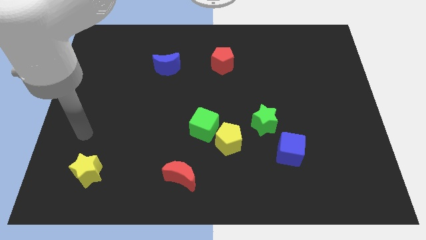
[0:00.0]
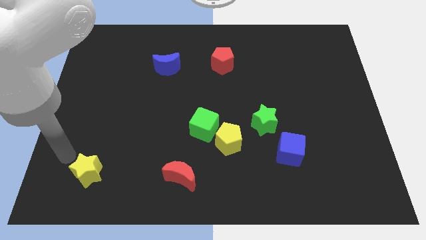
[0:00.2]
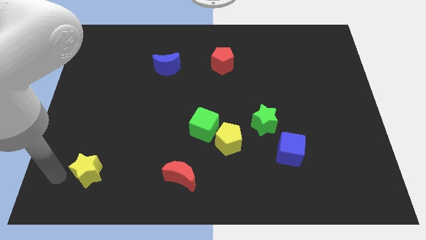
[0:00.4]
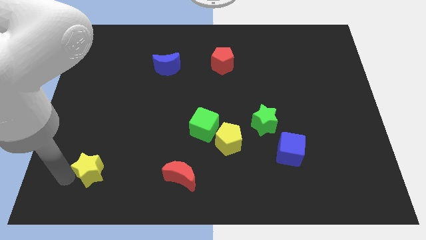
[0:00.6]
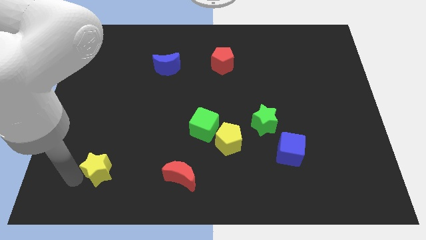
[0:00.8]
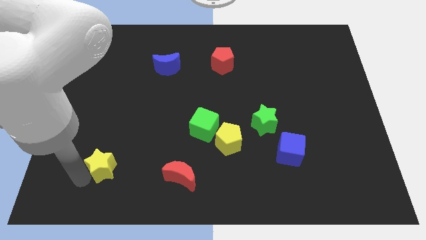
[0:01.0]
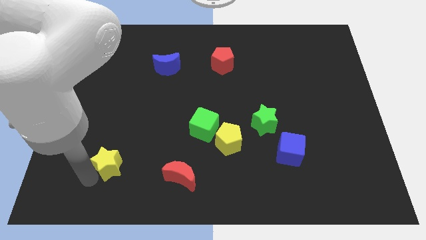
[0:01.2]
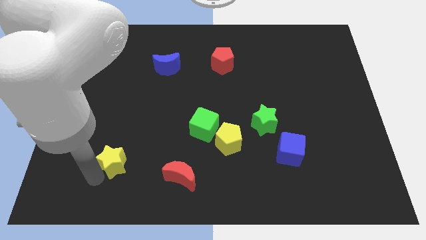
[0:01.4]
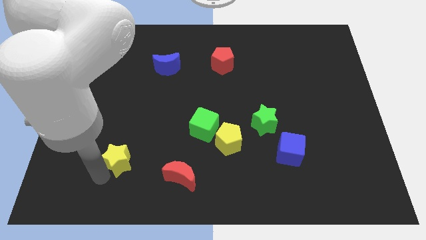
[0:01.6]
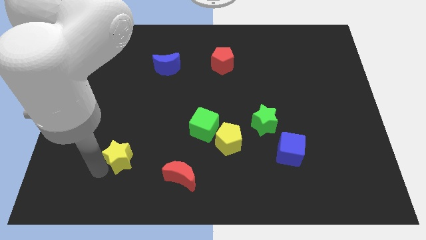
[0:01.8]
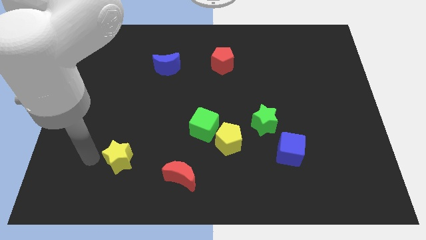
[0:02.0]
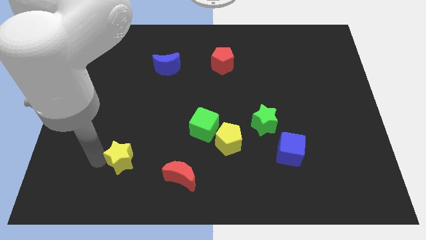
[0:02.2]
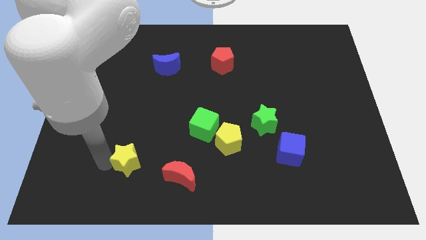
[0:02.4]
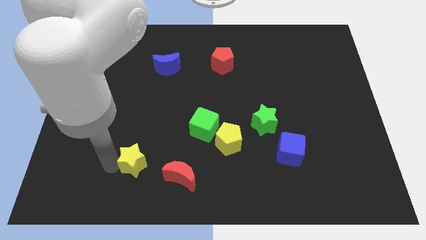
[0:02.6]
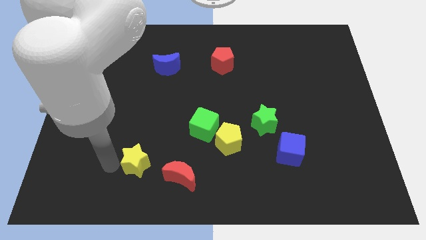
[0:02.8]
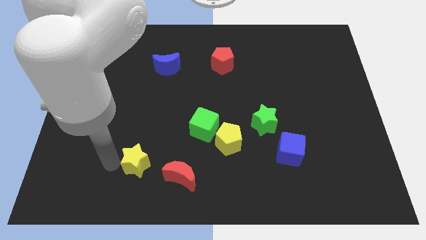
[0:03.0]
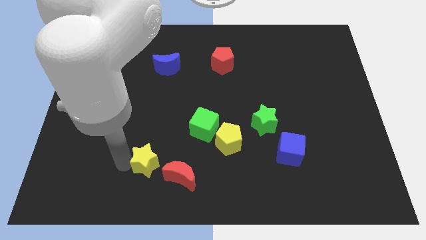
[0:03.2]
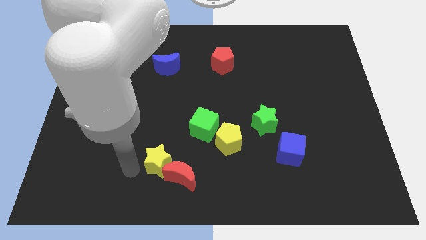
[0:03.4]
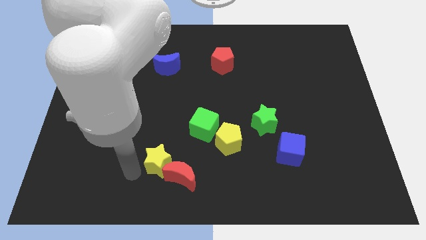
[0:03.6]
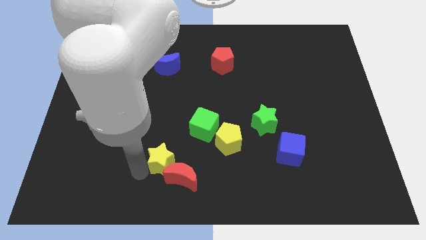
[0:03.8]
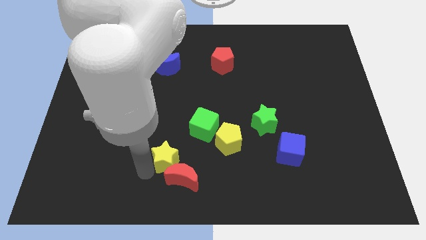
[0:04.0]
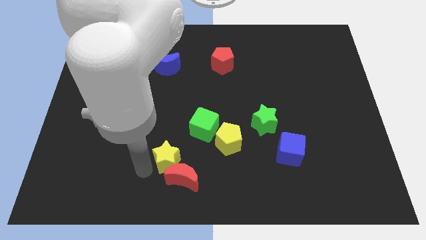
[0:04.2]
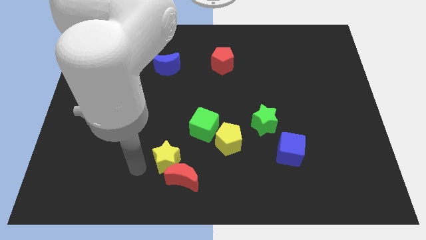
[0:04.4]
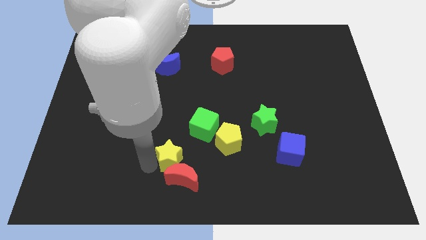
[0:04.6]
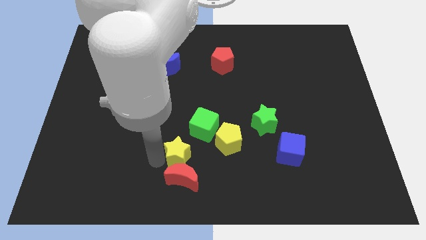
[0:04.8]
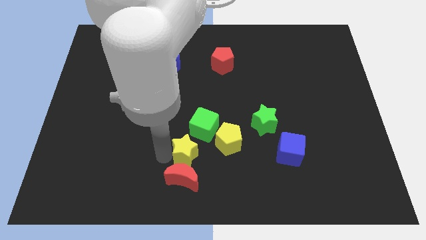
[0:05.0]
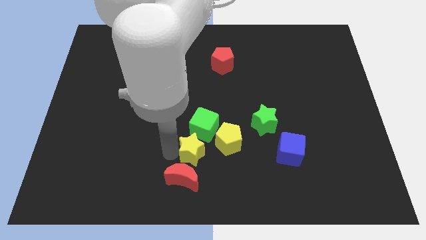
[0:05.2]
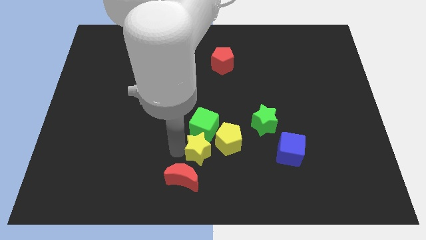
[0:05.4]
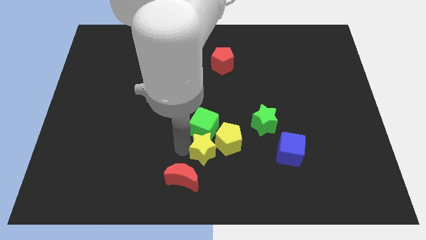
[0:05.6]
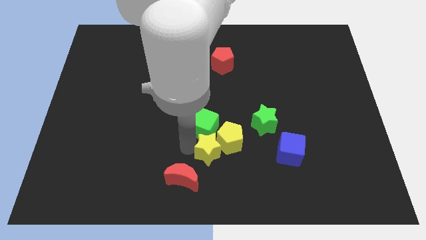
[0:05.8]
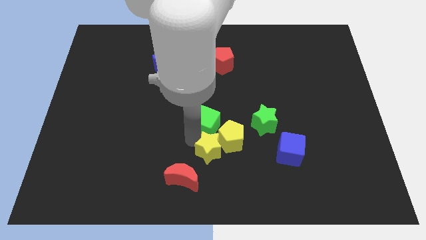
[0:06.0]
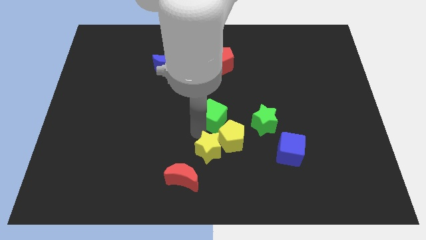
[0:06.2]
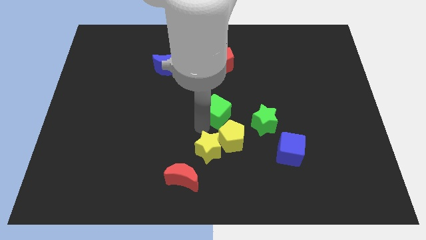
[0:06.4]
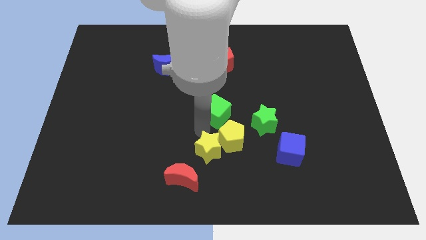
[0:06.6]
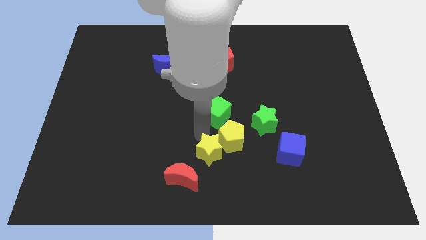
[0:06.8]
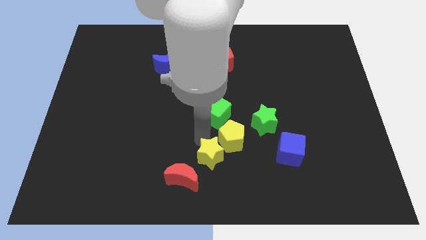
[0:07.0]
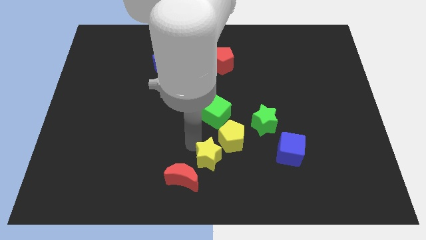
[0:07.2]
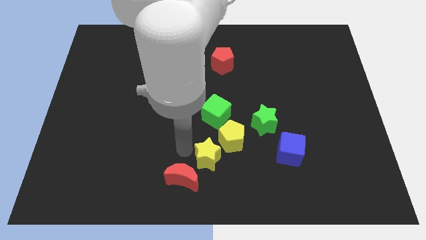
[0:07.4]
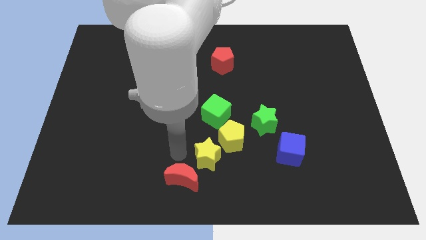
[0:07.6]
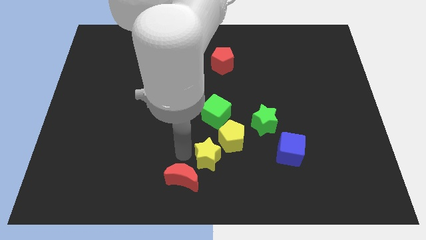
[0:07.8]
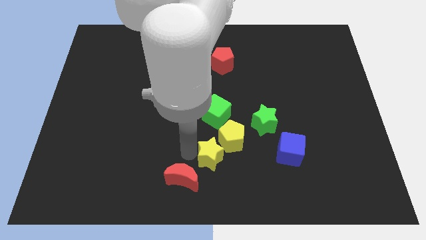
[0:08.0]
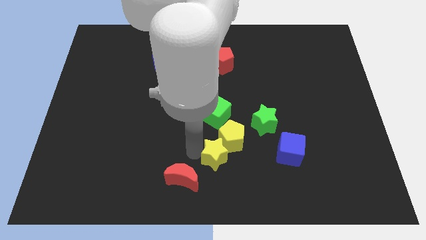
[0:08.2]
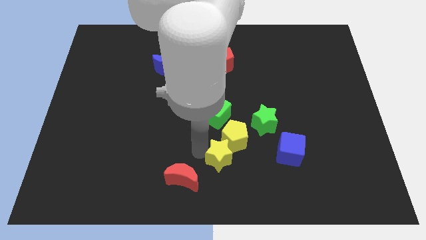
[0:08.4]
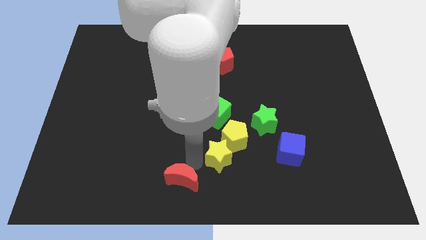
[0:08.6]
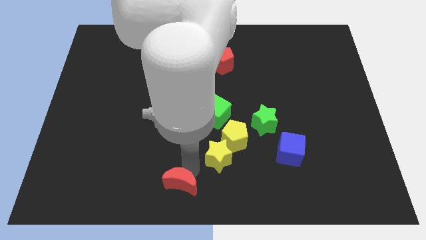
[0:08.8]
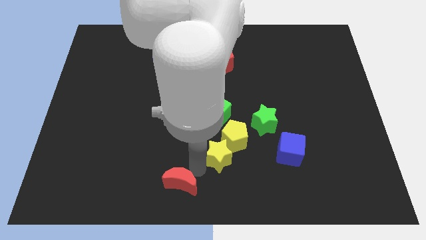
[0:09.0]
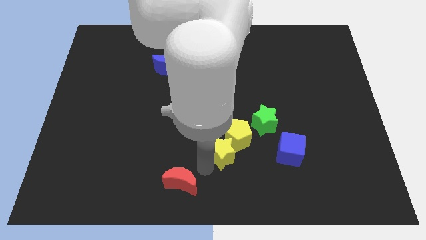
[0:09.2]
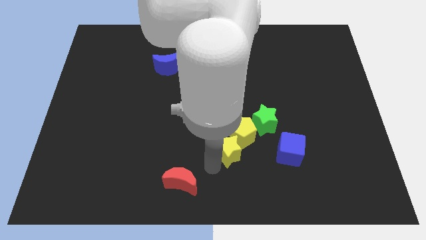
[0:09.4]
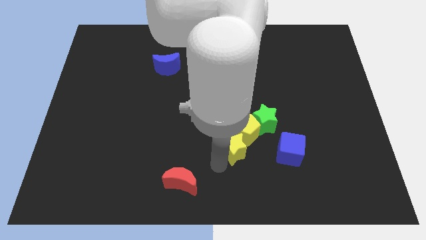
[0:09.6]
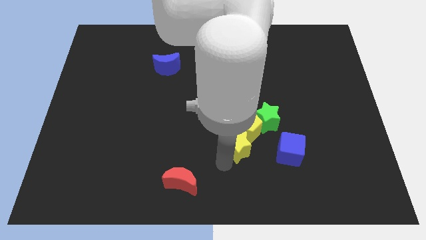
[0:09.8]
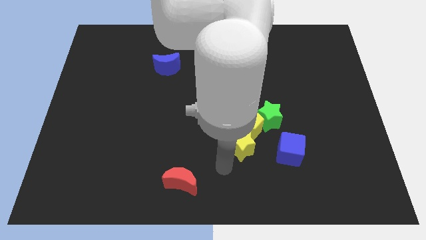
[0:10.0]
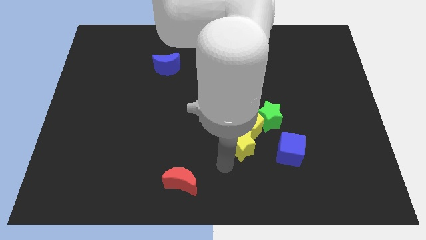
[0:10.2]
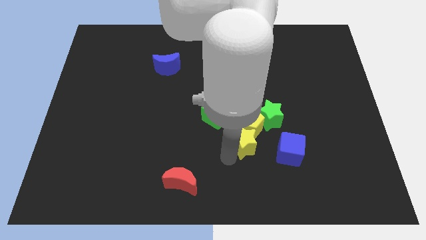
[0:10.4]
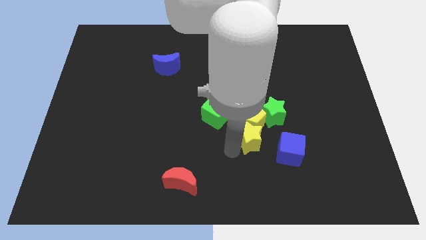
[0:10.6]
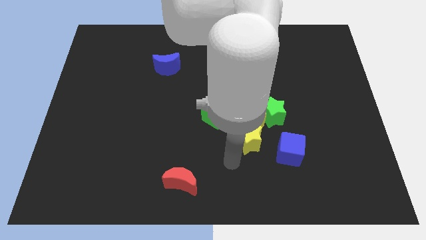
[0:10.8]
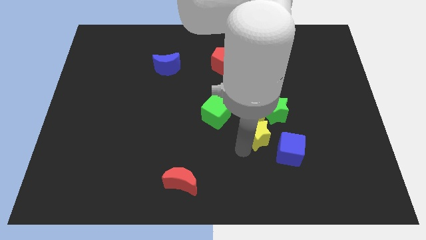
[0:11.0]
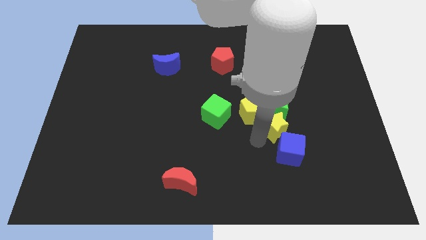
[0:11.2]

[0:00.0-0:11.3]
move the yellow star next to the green star

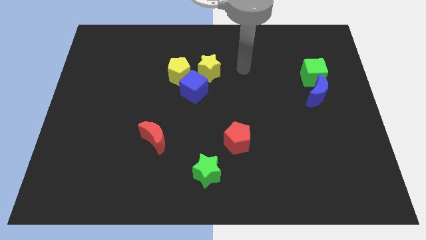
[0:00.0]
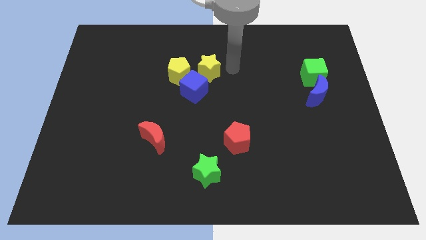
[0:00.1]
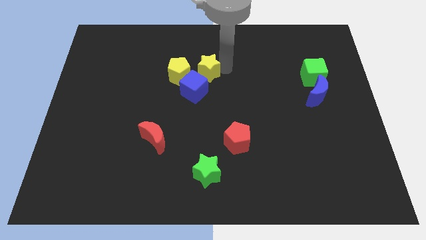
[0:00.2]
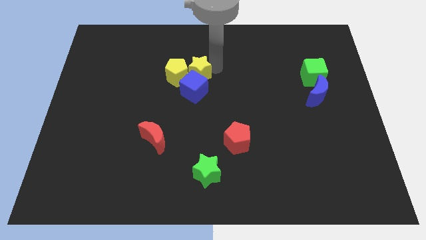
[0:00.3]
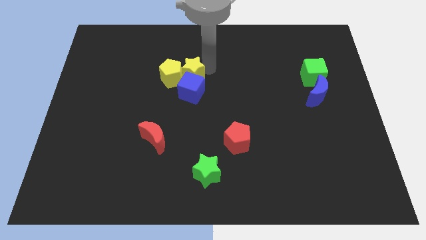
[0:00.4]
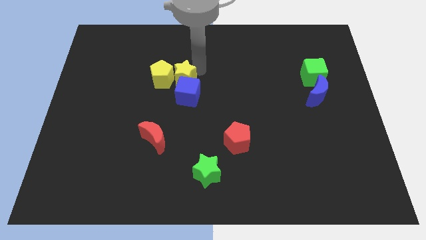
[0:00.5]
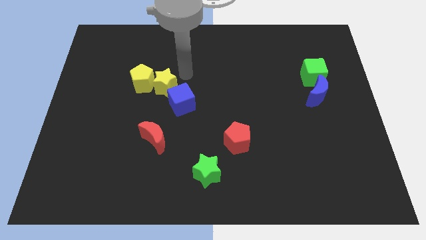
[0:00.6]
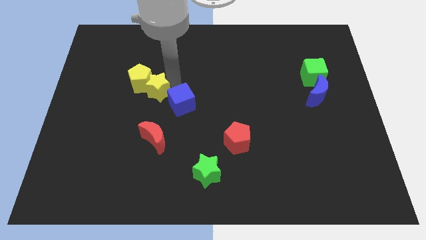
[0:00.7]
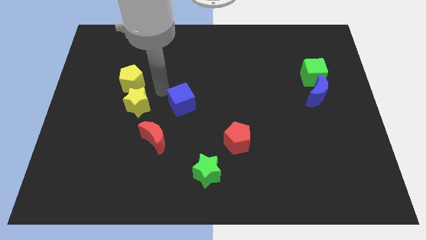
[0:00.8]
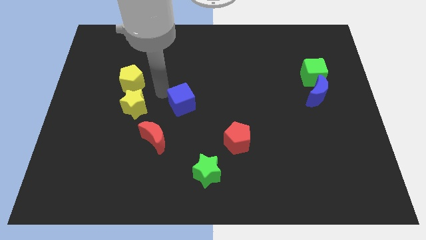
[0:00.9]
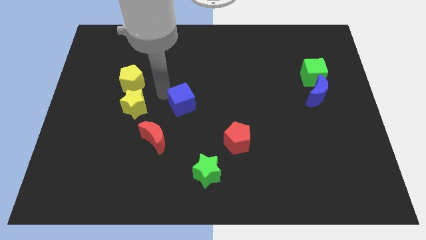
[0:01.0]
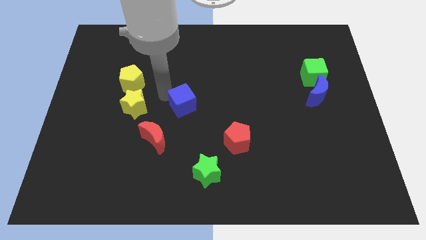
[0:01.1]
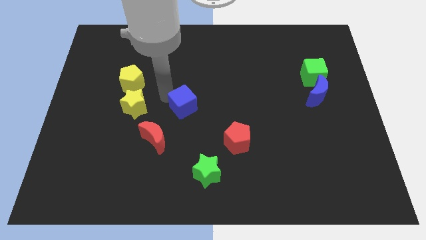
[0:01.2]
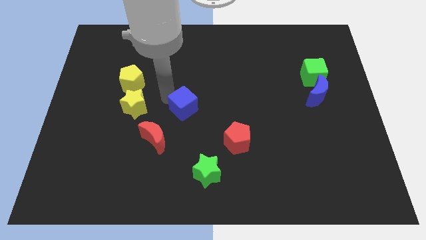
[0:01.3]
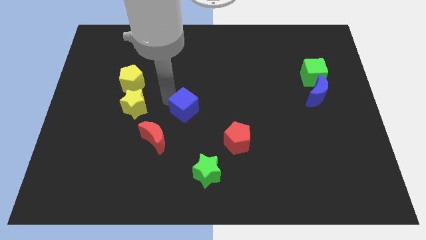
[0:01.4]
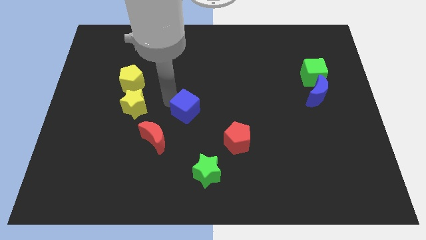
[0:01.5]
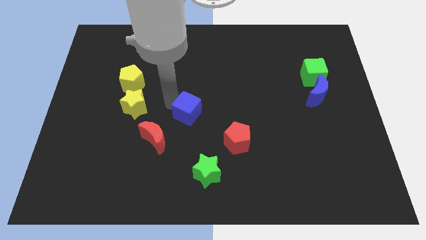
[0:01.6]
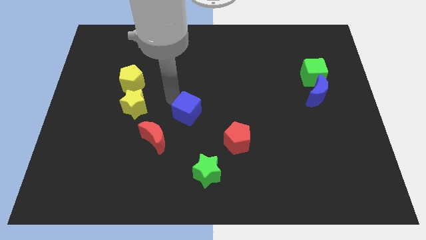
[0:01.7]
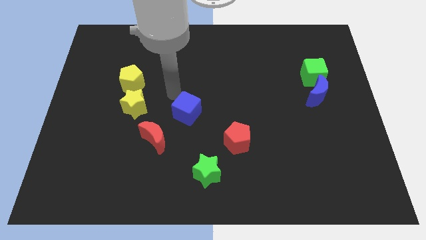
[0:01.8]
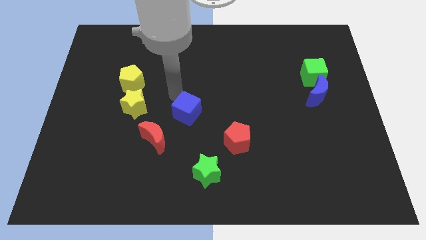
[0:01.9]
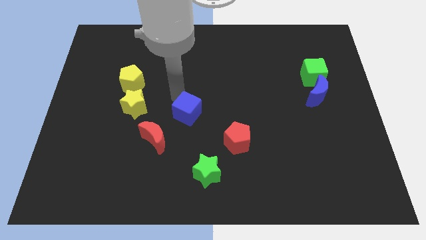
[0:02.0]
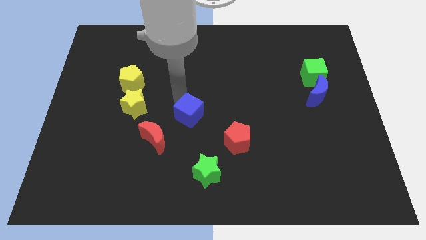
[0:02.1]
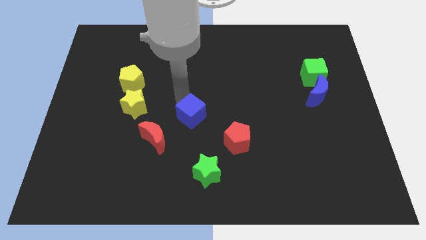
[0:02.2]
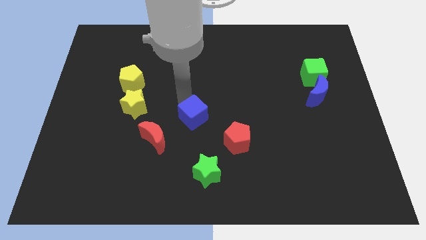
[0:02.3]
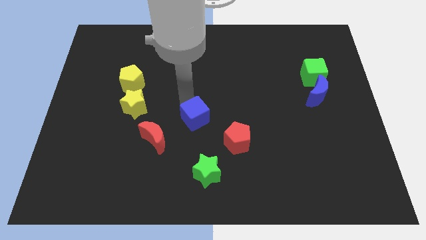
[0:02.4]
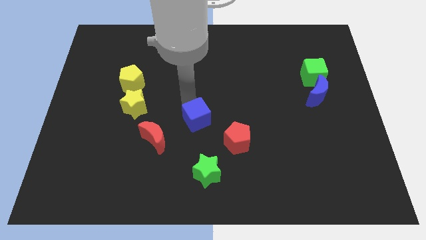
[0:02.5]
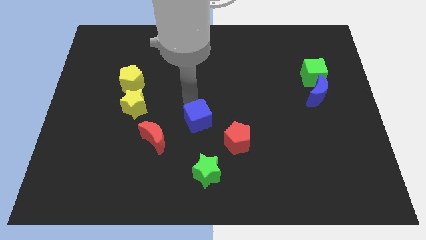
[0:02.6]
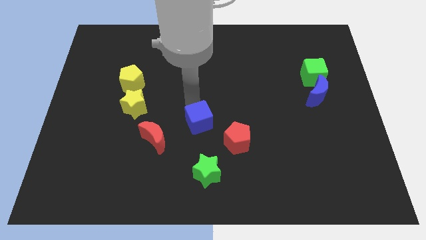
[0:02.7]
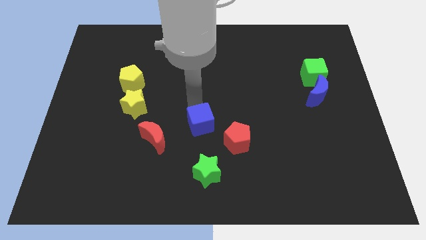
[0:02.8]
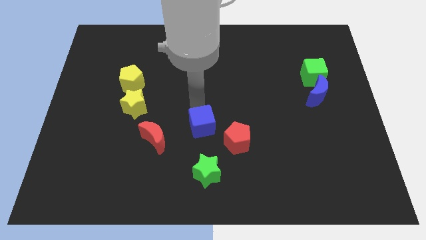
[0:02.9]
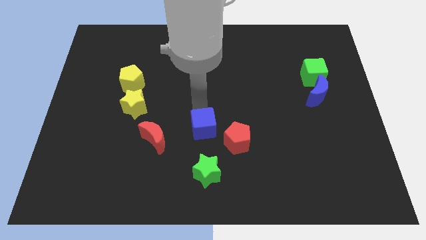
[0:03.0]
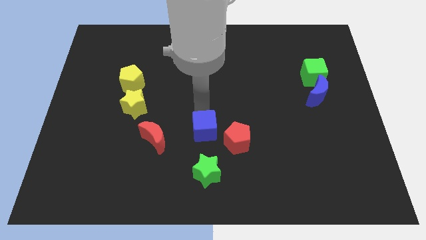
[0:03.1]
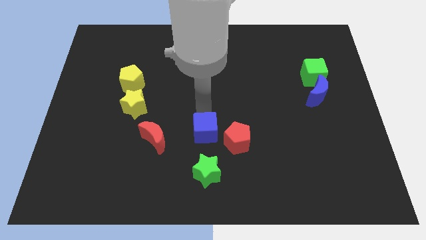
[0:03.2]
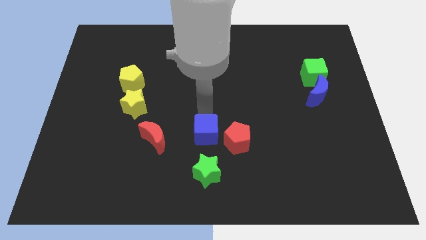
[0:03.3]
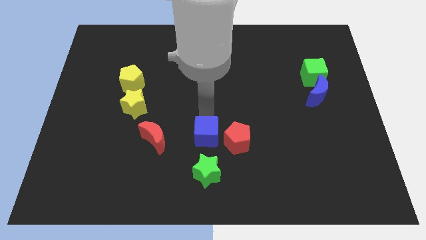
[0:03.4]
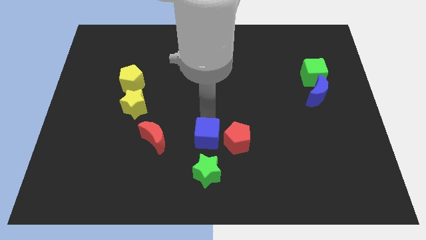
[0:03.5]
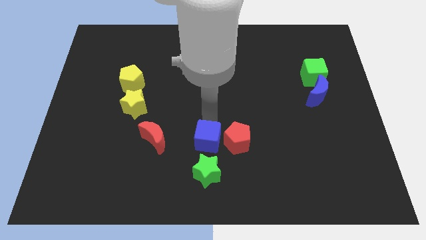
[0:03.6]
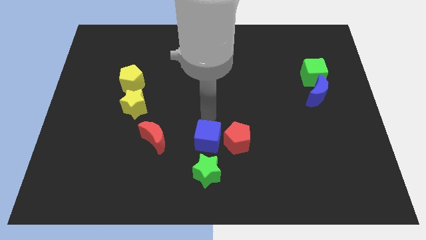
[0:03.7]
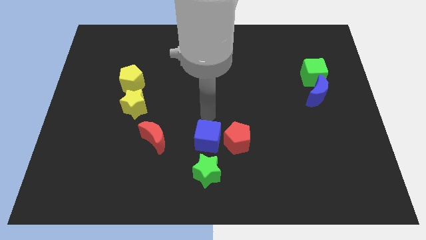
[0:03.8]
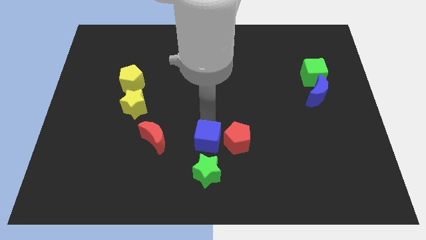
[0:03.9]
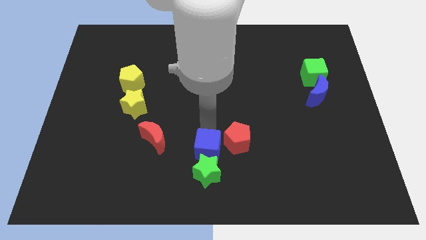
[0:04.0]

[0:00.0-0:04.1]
put the blue cube towards the green star
